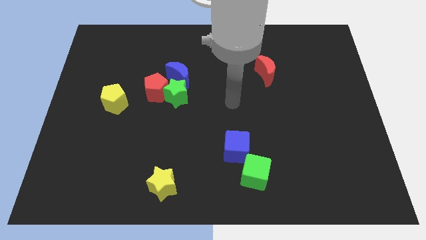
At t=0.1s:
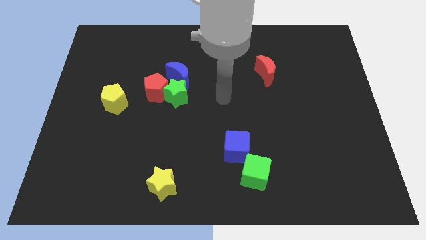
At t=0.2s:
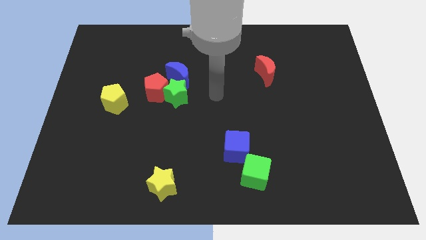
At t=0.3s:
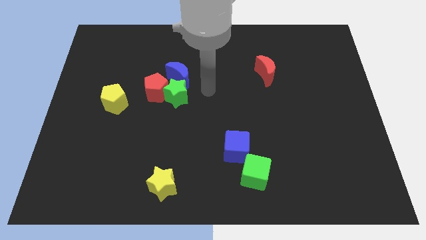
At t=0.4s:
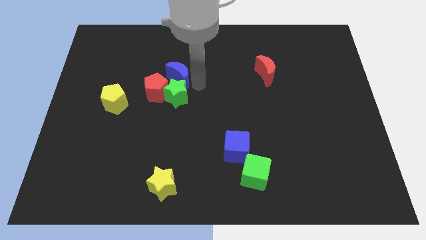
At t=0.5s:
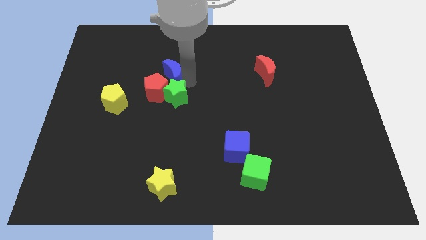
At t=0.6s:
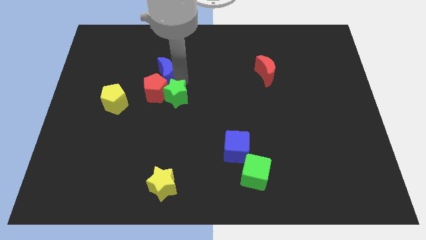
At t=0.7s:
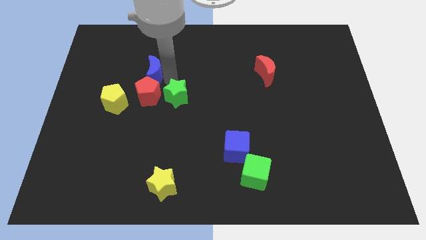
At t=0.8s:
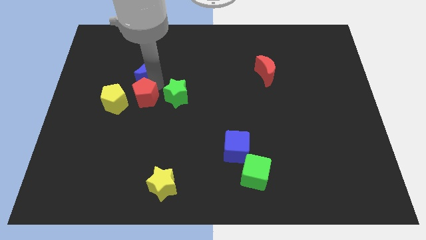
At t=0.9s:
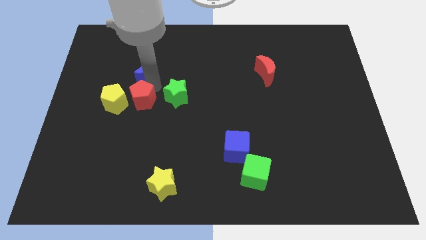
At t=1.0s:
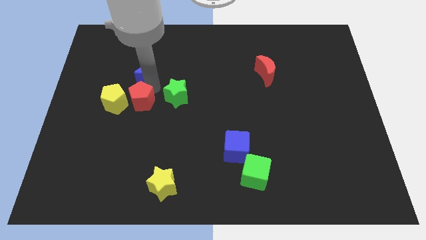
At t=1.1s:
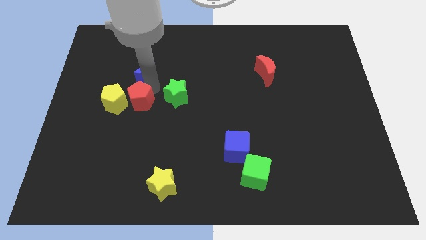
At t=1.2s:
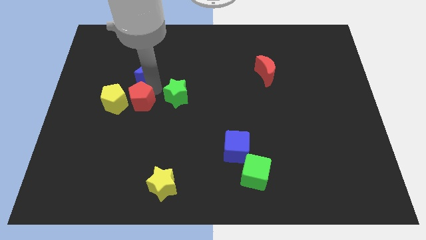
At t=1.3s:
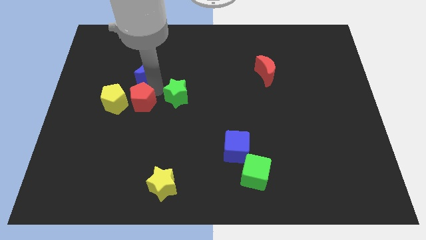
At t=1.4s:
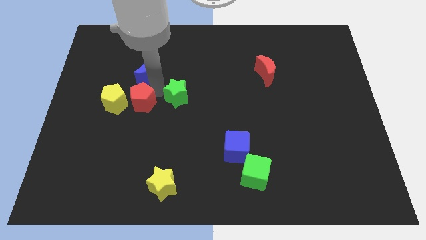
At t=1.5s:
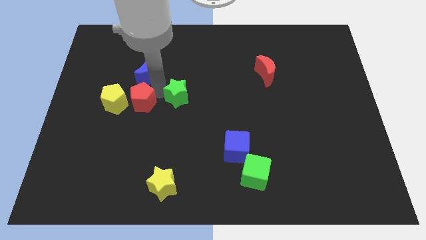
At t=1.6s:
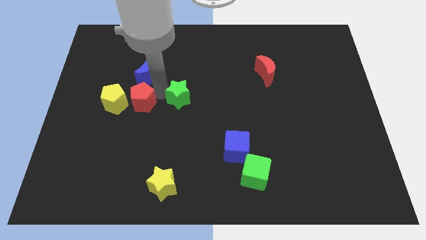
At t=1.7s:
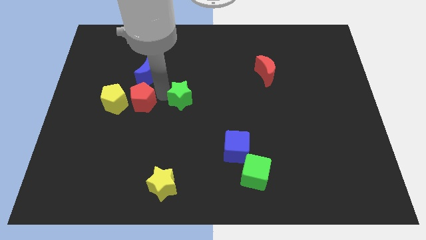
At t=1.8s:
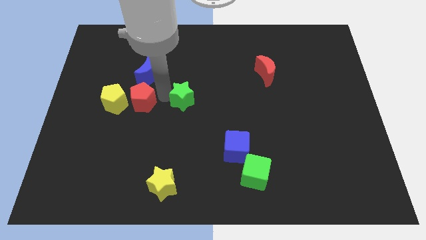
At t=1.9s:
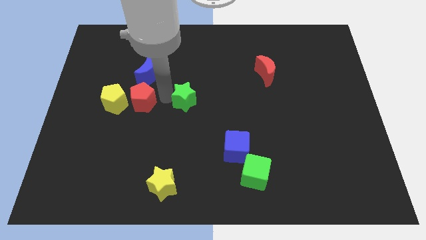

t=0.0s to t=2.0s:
separate the green star from the red pentagon and blue moon

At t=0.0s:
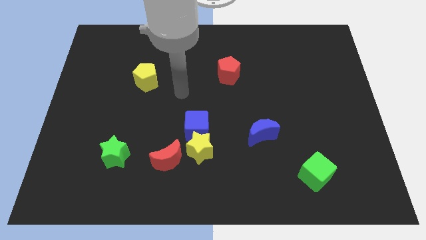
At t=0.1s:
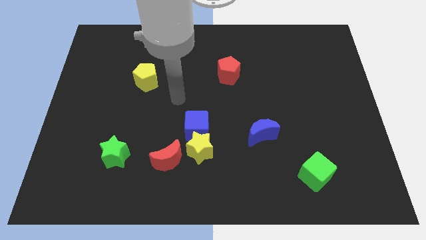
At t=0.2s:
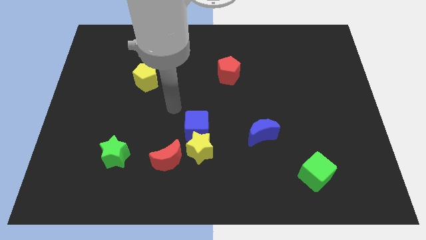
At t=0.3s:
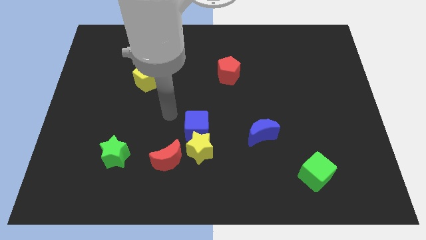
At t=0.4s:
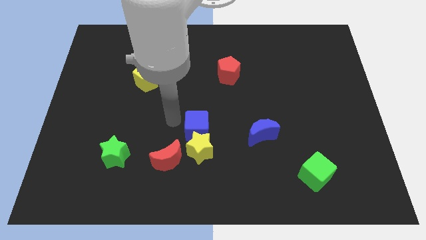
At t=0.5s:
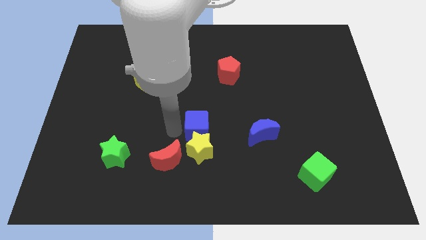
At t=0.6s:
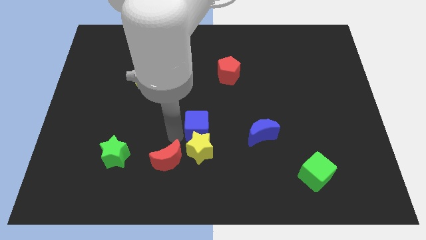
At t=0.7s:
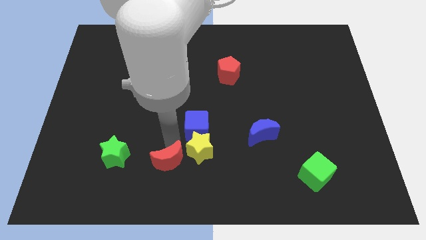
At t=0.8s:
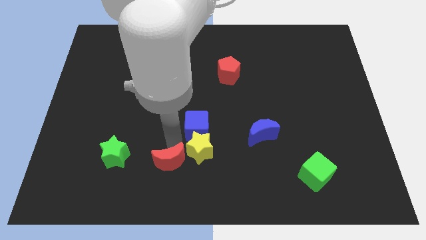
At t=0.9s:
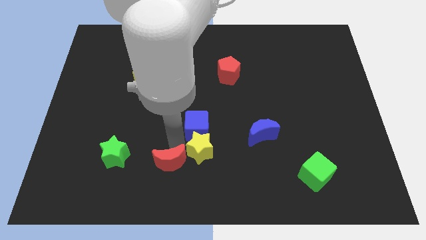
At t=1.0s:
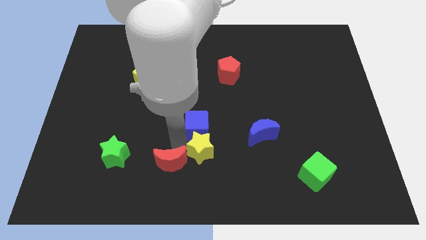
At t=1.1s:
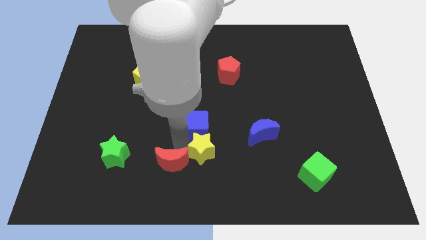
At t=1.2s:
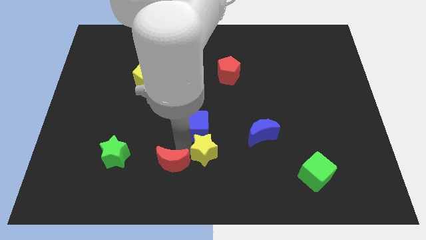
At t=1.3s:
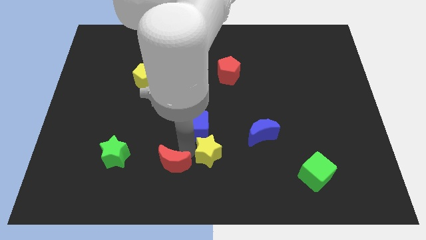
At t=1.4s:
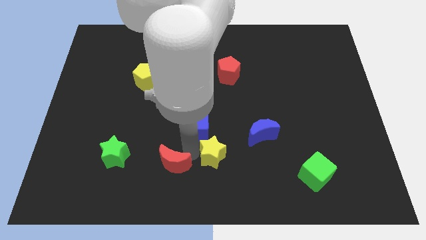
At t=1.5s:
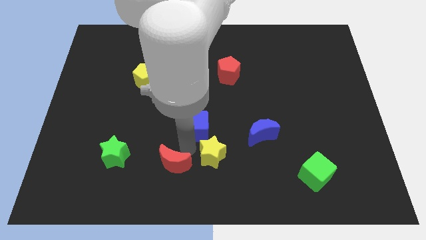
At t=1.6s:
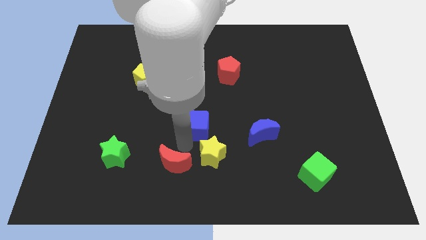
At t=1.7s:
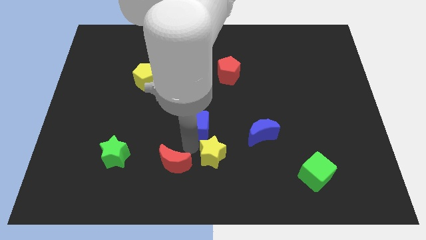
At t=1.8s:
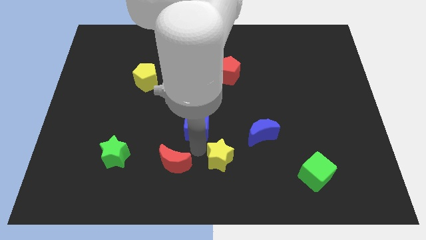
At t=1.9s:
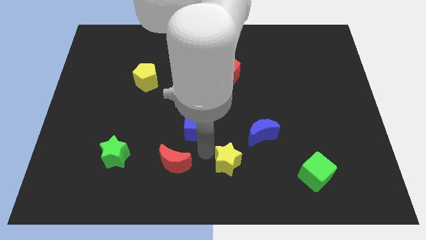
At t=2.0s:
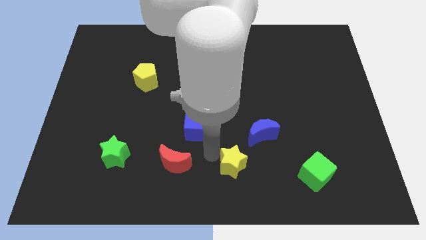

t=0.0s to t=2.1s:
pull the yellow star apart from the blue cube and red moon

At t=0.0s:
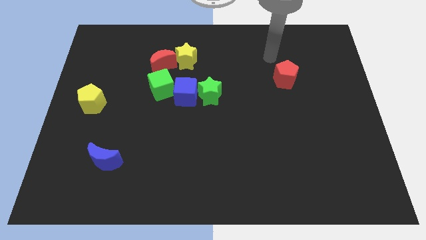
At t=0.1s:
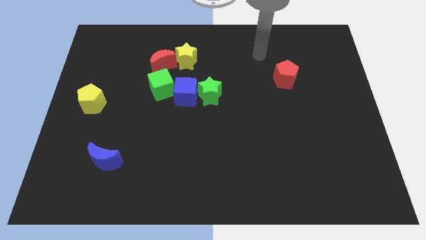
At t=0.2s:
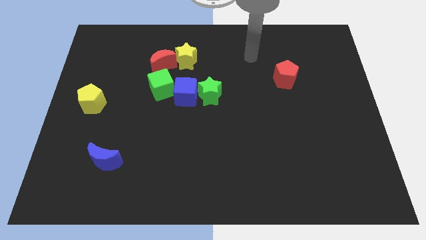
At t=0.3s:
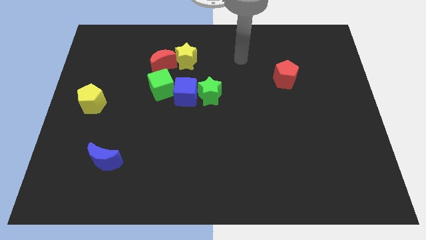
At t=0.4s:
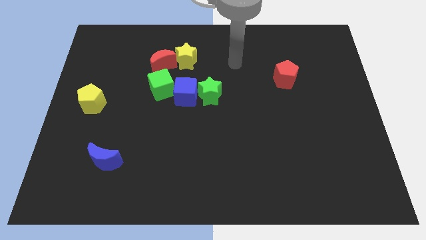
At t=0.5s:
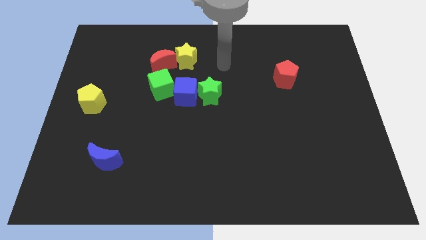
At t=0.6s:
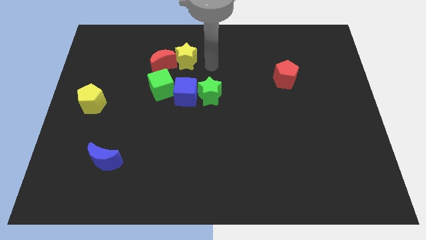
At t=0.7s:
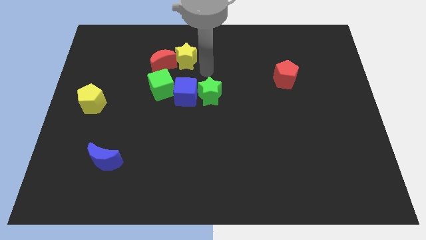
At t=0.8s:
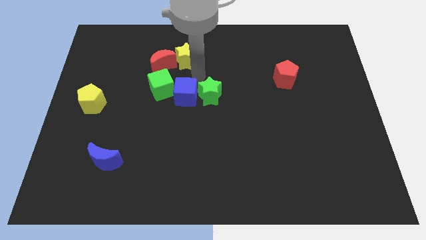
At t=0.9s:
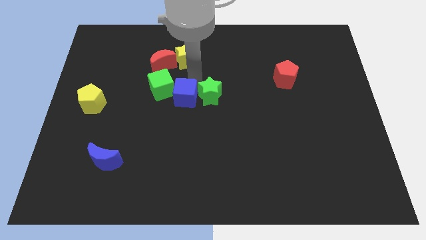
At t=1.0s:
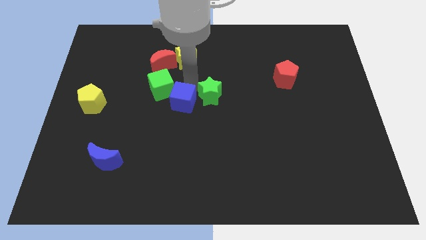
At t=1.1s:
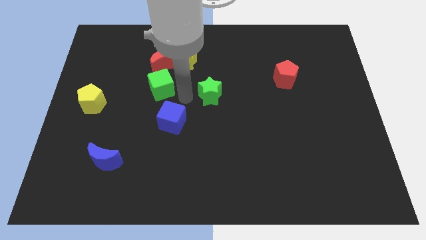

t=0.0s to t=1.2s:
move the green star away from the blue cube

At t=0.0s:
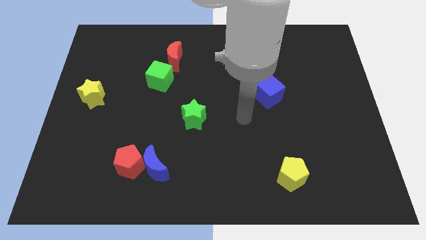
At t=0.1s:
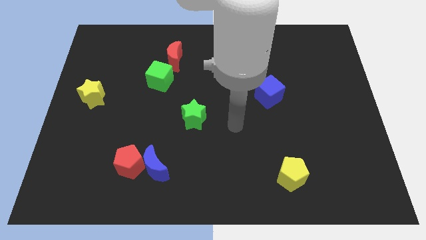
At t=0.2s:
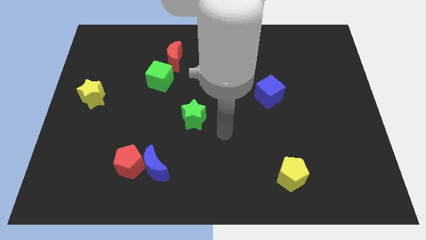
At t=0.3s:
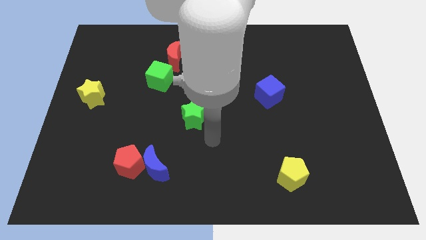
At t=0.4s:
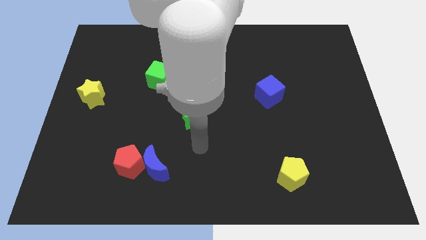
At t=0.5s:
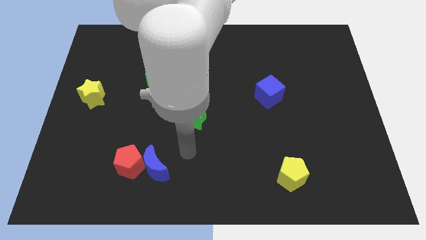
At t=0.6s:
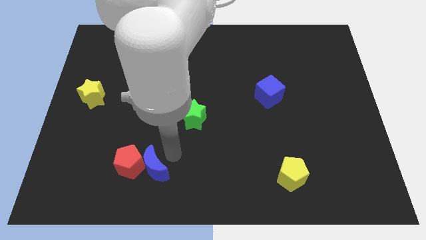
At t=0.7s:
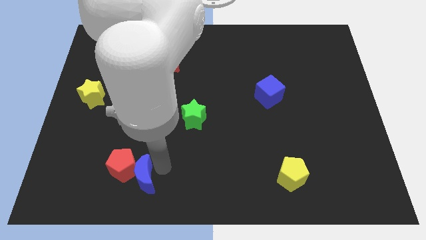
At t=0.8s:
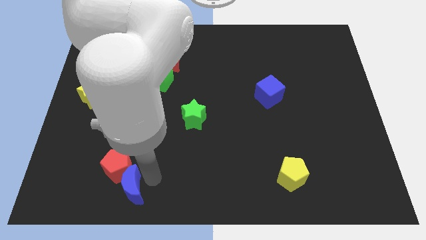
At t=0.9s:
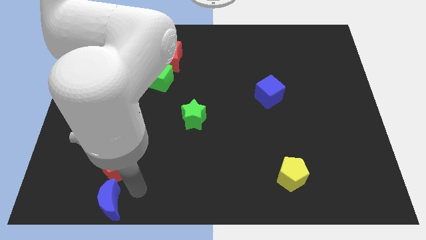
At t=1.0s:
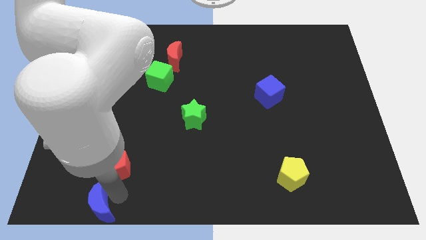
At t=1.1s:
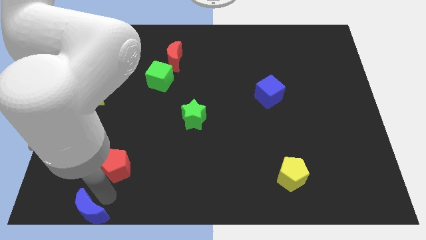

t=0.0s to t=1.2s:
separate the red pentagon from the blue moon

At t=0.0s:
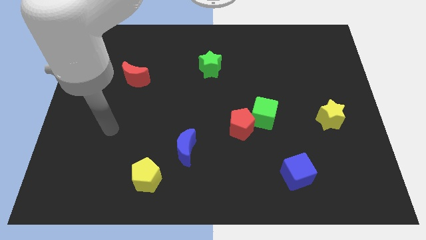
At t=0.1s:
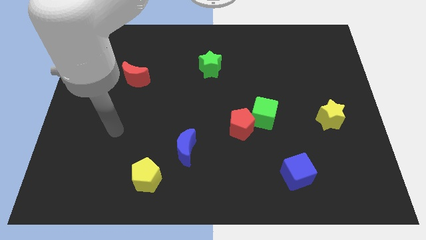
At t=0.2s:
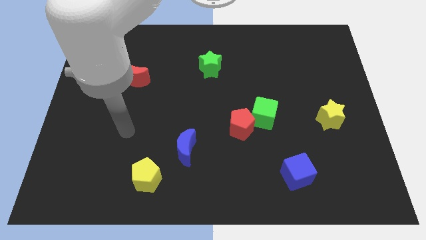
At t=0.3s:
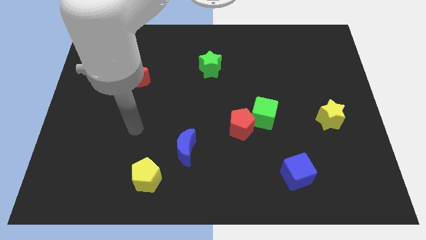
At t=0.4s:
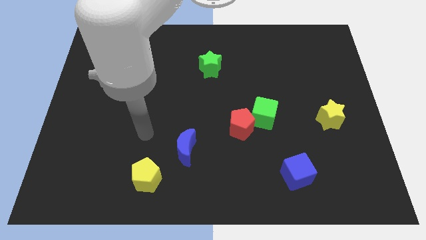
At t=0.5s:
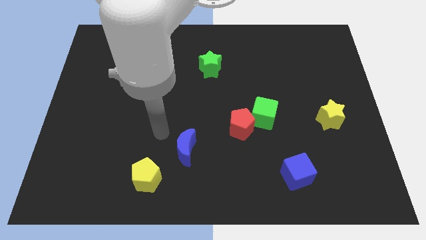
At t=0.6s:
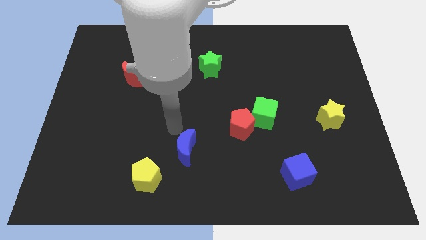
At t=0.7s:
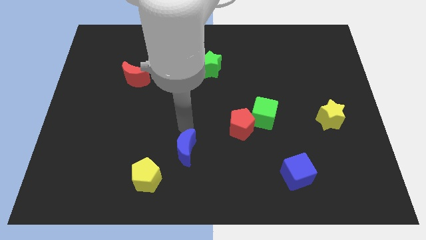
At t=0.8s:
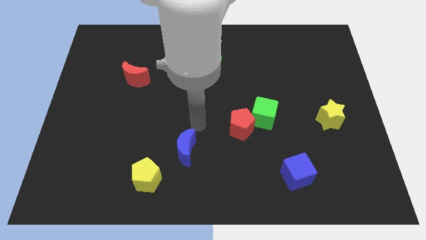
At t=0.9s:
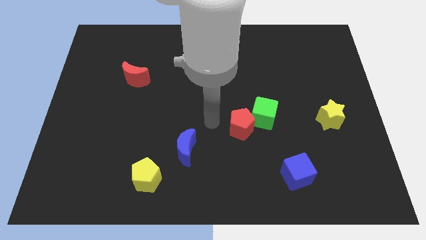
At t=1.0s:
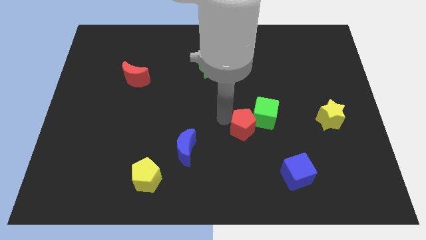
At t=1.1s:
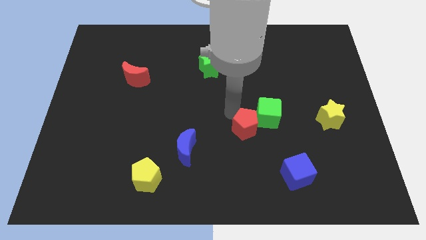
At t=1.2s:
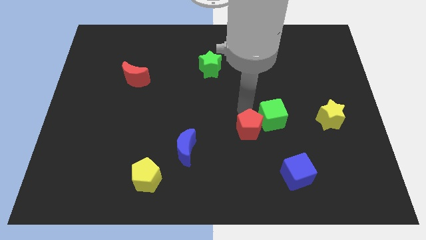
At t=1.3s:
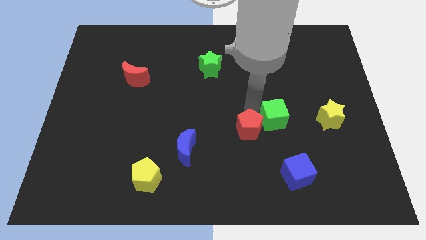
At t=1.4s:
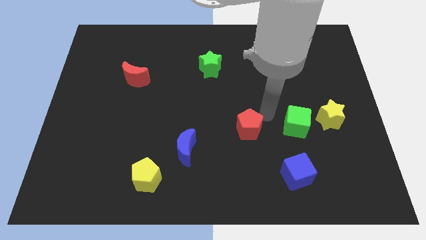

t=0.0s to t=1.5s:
move the red pentagon away from the green cube

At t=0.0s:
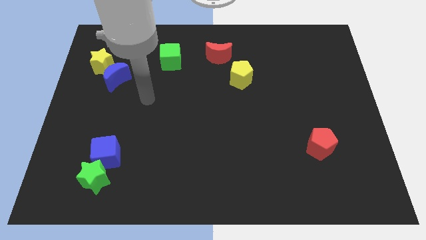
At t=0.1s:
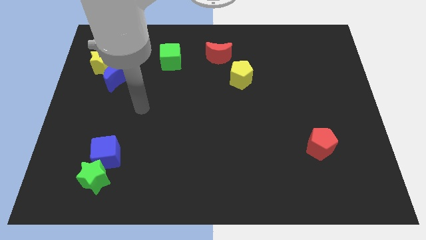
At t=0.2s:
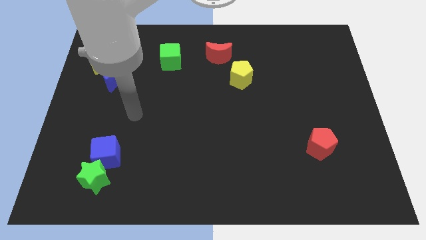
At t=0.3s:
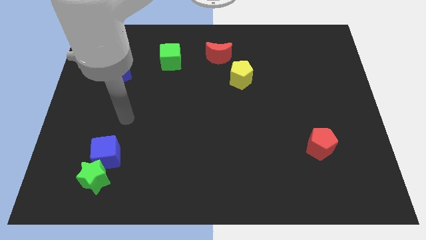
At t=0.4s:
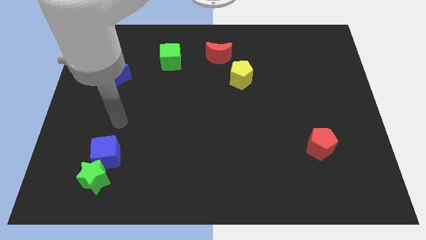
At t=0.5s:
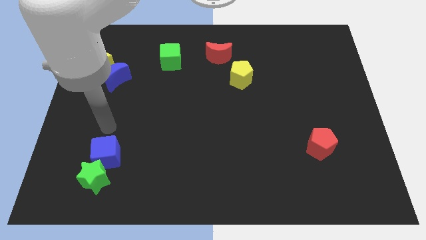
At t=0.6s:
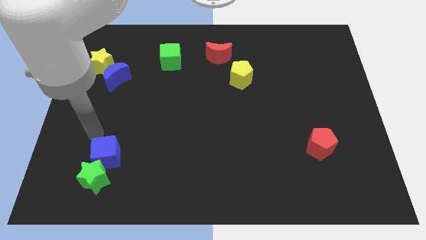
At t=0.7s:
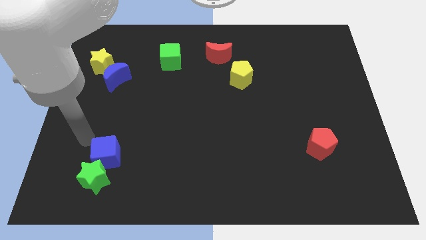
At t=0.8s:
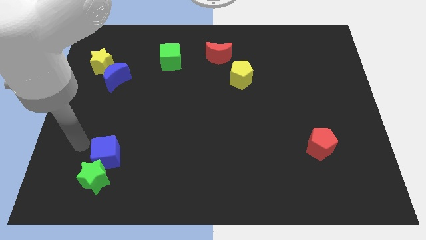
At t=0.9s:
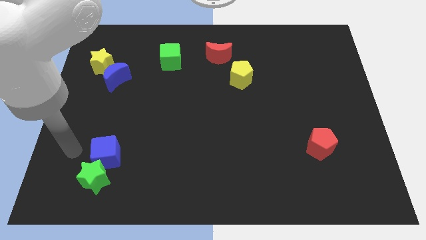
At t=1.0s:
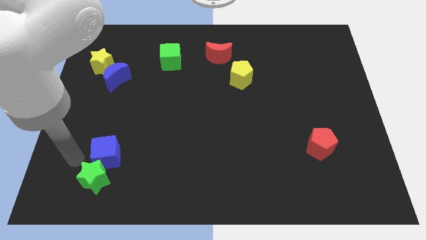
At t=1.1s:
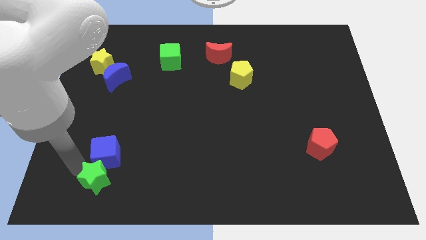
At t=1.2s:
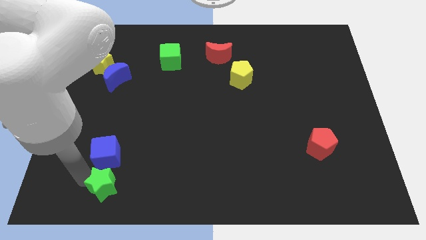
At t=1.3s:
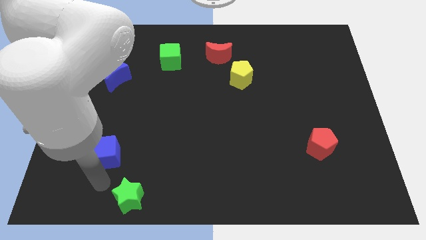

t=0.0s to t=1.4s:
pull the blue cube apart from the green star
